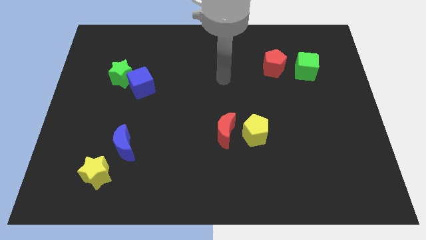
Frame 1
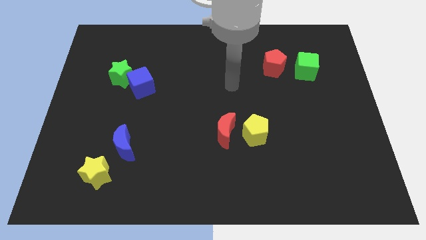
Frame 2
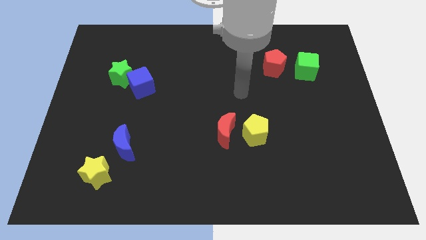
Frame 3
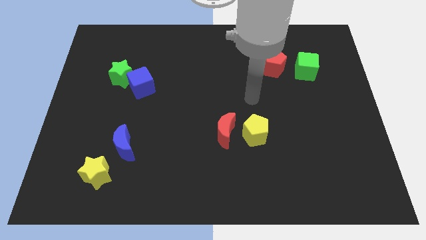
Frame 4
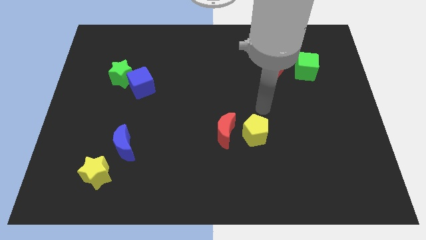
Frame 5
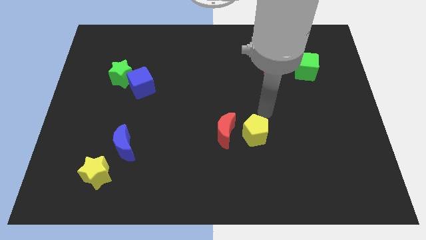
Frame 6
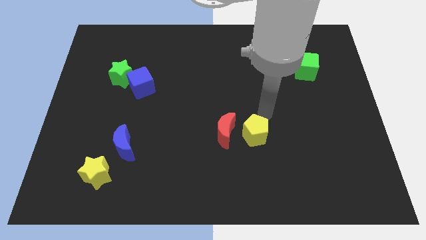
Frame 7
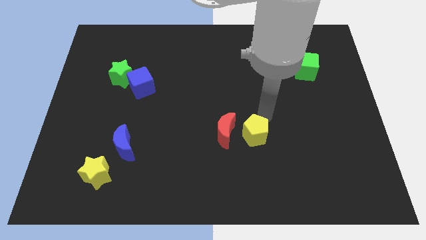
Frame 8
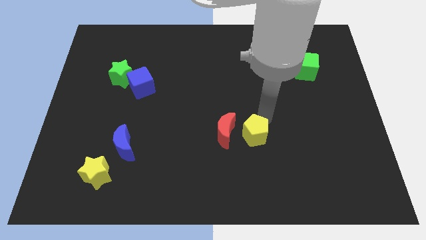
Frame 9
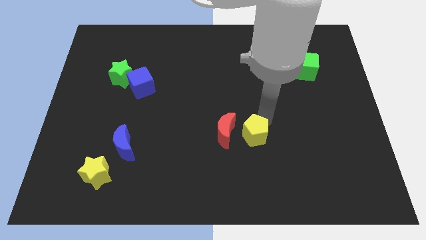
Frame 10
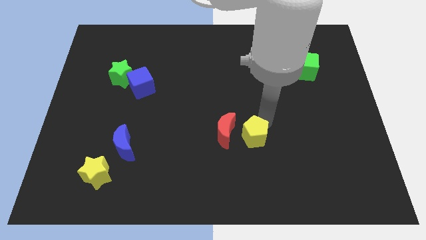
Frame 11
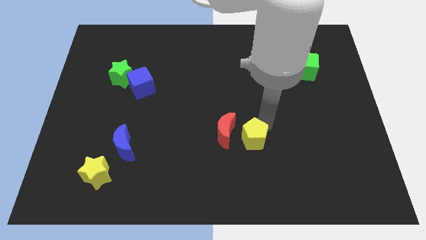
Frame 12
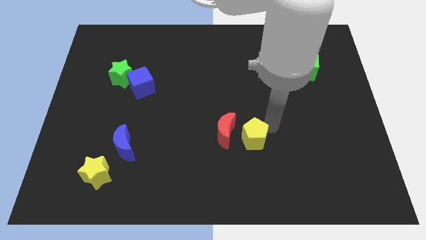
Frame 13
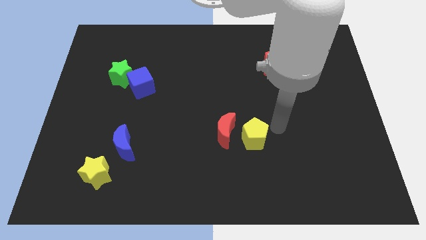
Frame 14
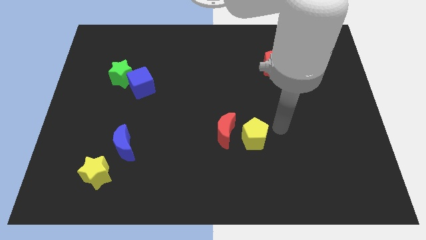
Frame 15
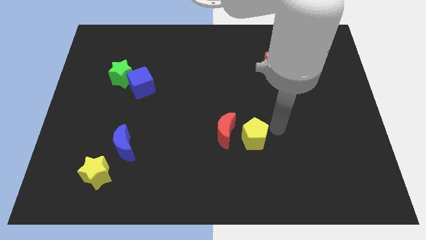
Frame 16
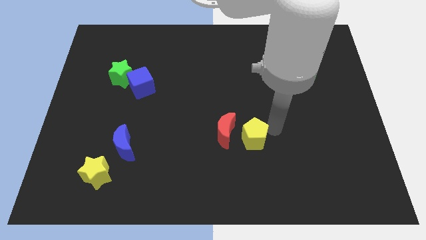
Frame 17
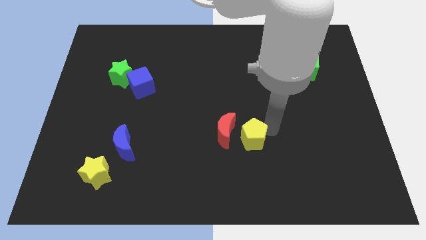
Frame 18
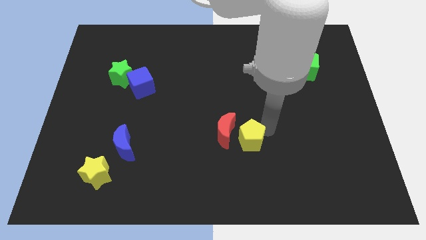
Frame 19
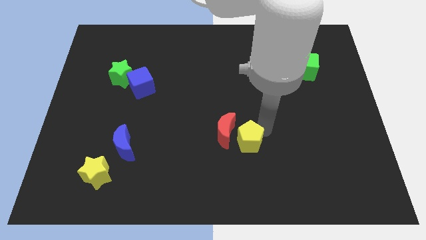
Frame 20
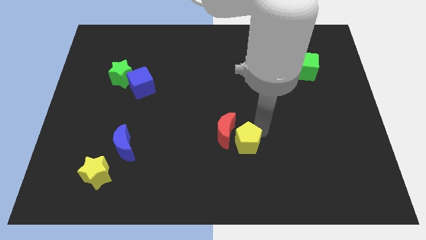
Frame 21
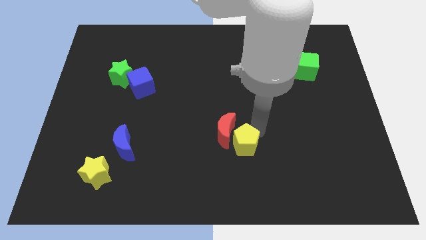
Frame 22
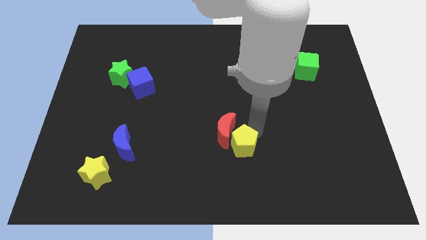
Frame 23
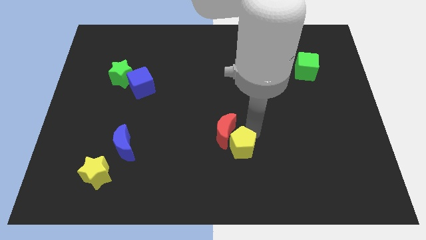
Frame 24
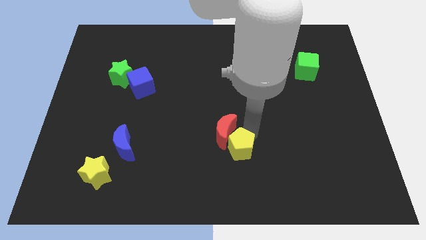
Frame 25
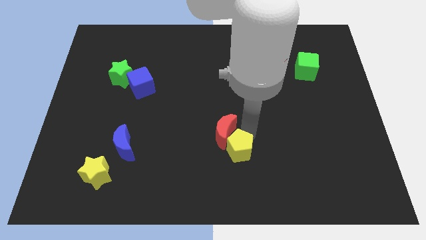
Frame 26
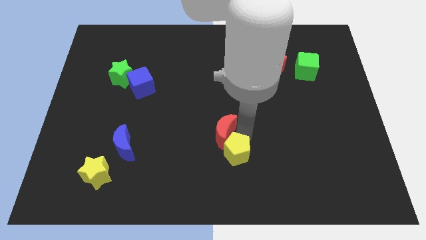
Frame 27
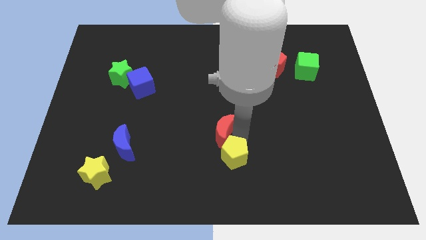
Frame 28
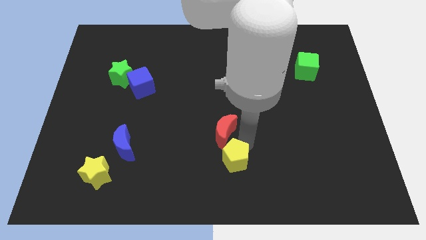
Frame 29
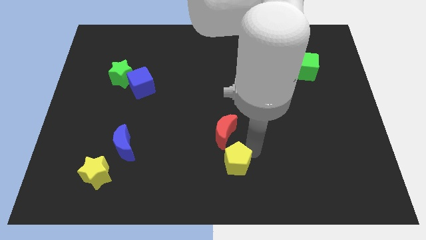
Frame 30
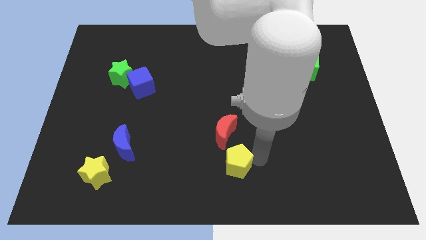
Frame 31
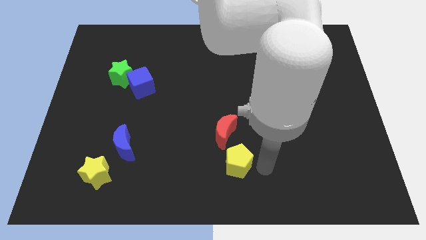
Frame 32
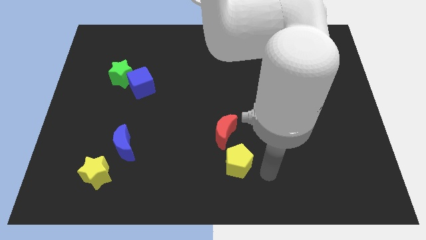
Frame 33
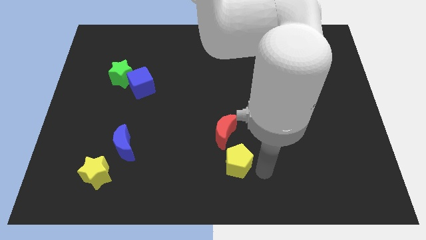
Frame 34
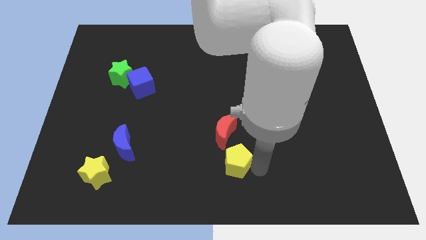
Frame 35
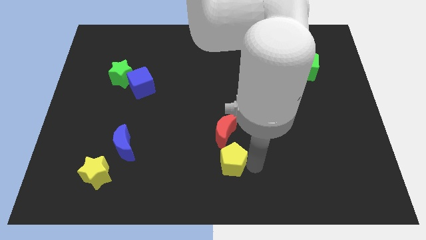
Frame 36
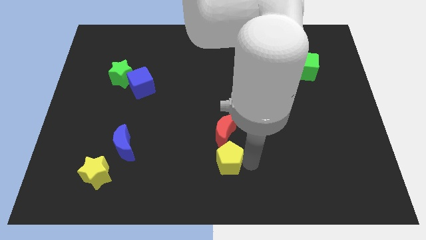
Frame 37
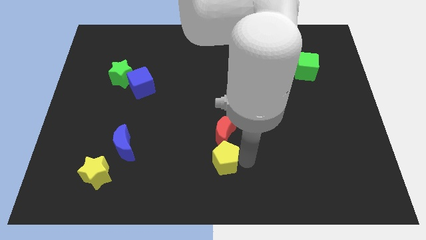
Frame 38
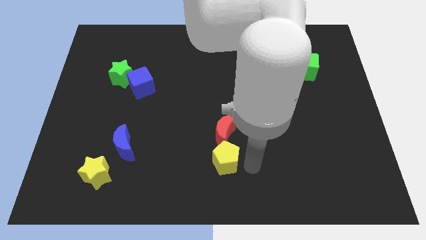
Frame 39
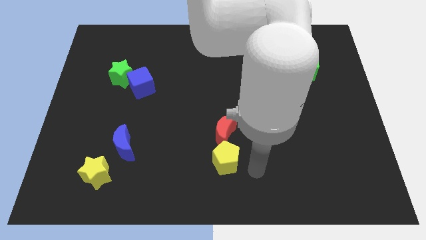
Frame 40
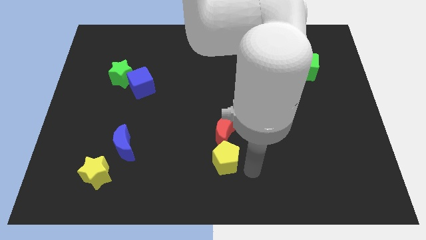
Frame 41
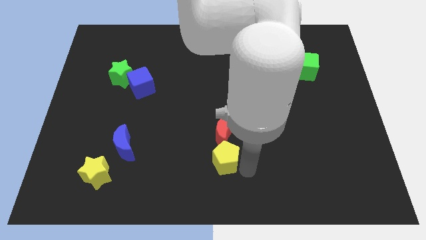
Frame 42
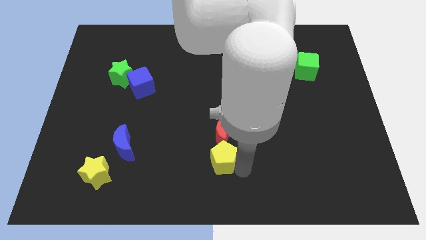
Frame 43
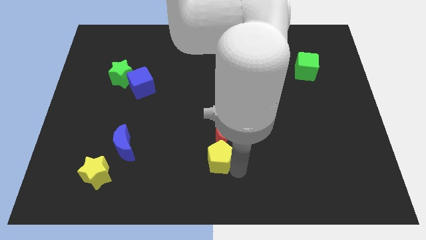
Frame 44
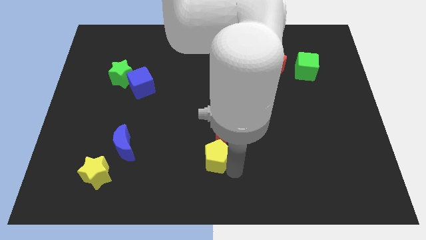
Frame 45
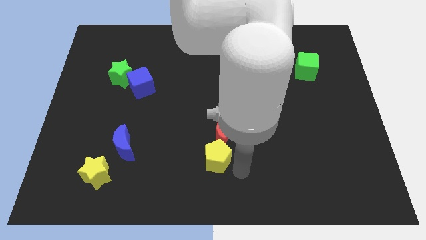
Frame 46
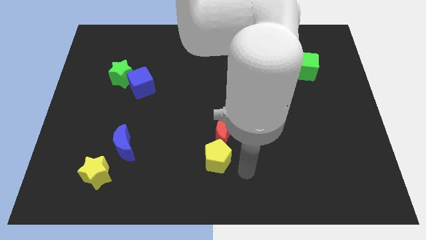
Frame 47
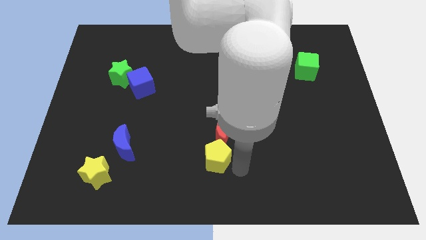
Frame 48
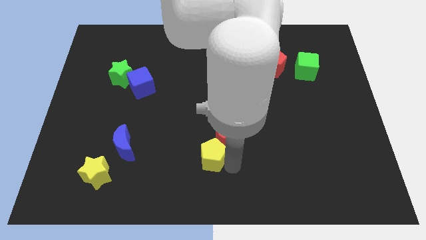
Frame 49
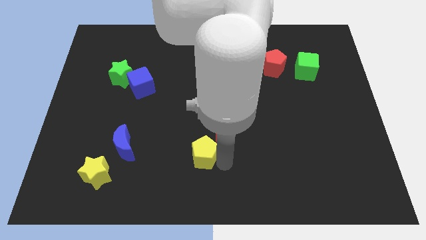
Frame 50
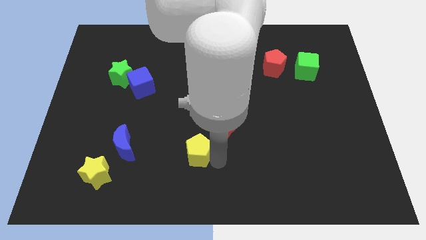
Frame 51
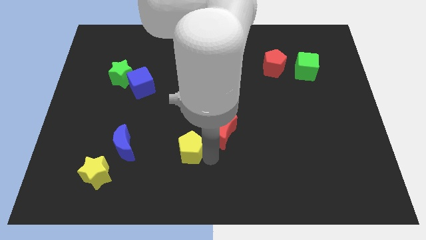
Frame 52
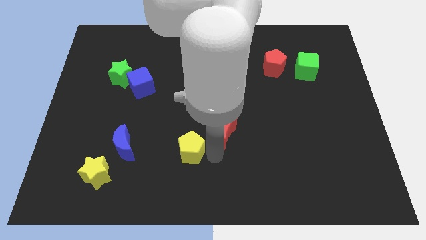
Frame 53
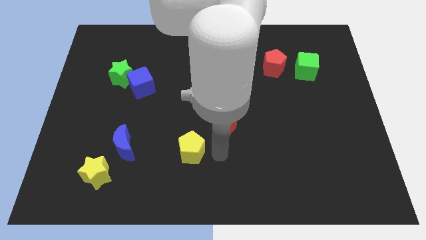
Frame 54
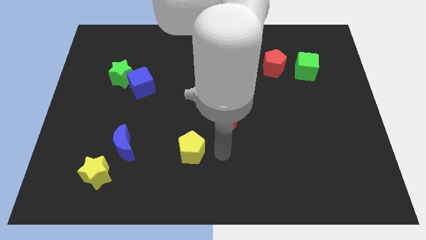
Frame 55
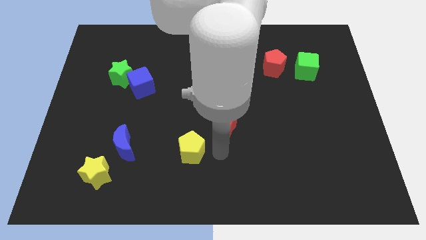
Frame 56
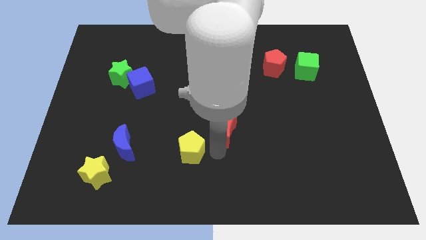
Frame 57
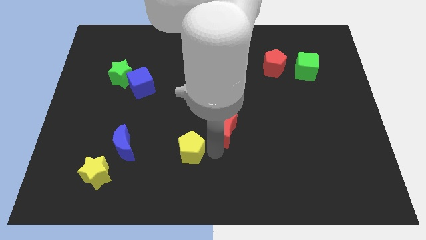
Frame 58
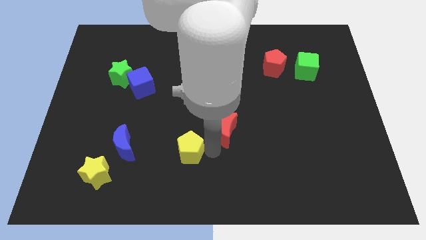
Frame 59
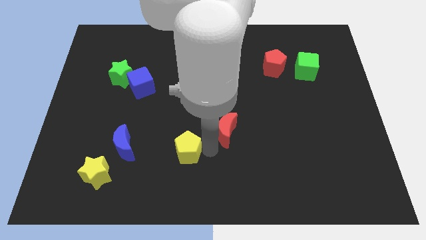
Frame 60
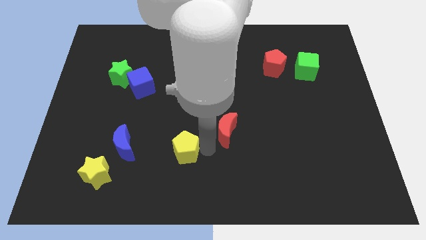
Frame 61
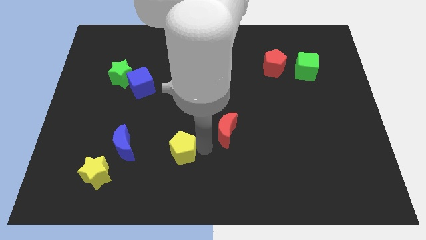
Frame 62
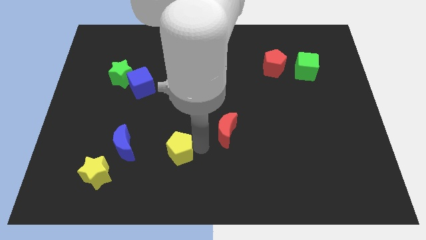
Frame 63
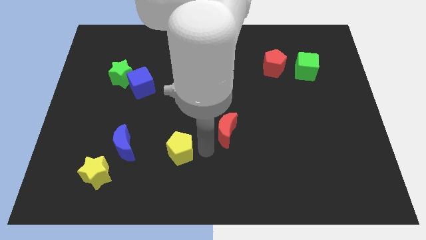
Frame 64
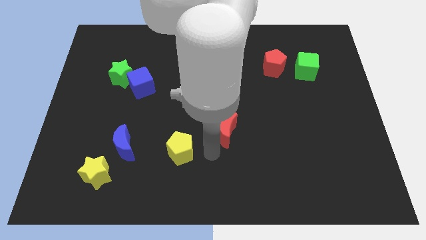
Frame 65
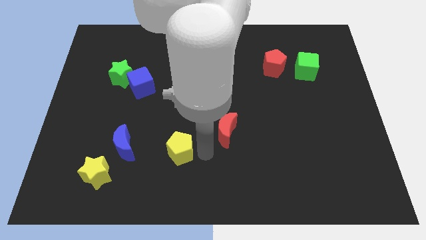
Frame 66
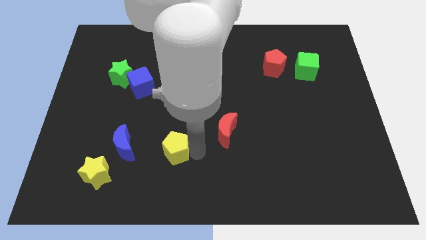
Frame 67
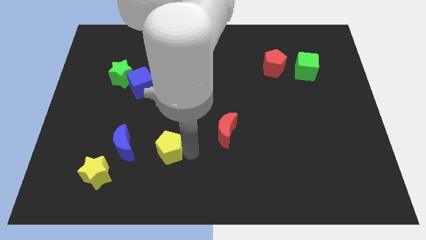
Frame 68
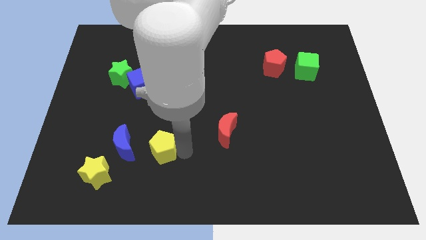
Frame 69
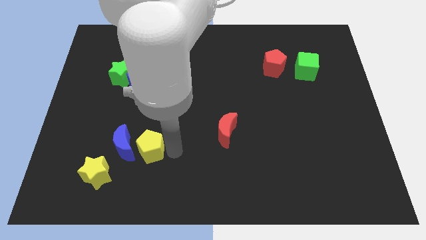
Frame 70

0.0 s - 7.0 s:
move the yellow pentagon towards the blue moon
